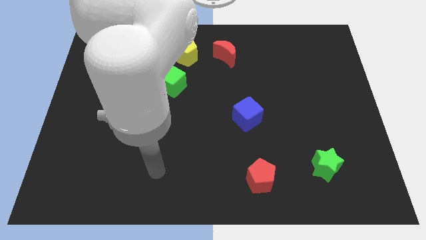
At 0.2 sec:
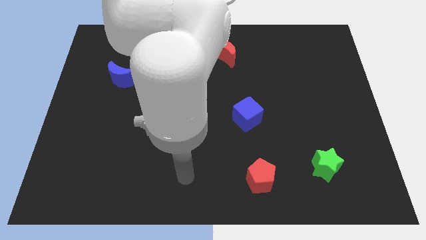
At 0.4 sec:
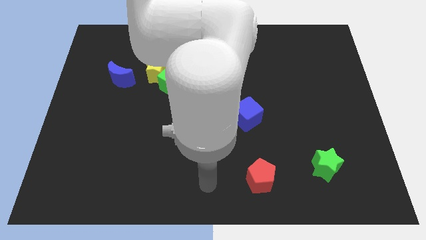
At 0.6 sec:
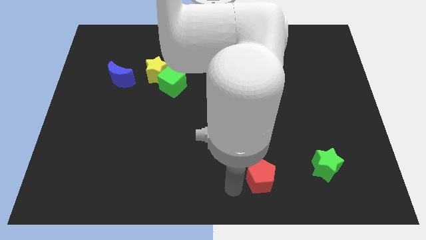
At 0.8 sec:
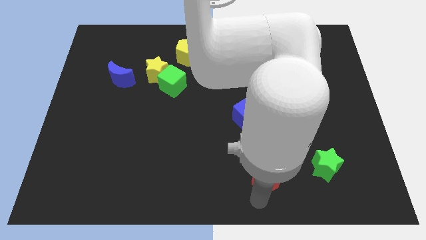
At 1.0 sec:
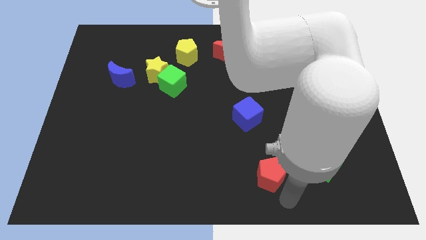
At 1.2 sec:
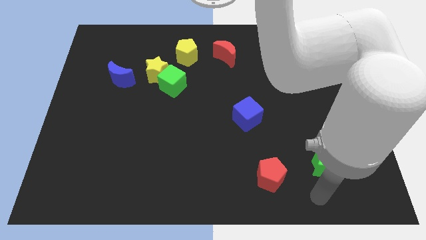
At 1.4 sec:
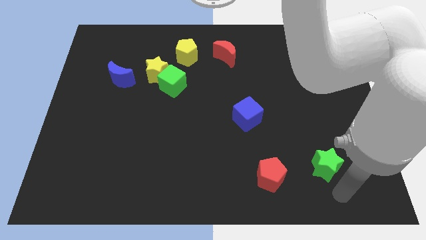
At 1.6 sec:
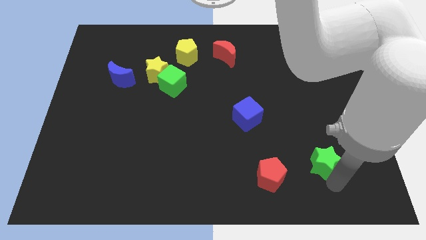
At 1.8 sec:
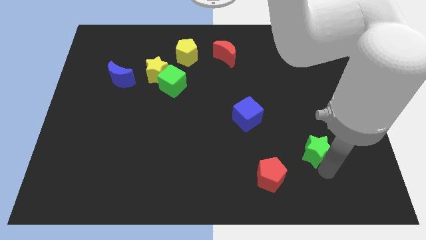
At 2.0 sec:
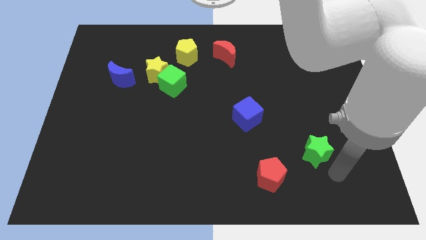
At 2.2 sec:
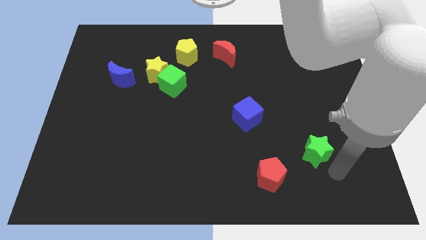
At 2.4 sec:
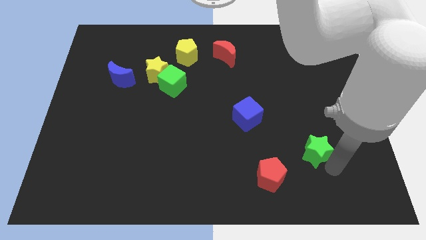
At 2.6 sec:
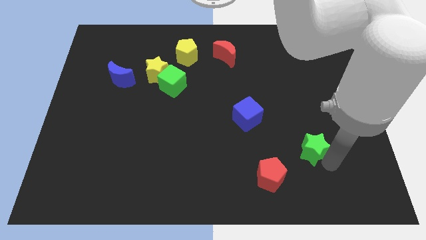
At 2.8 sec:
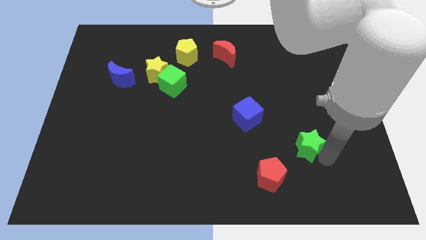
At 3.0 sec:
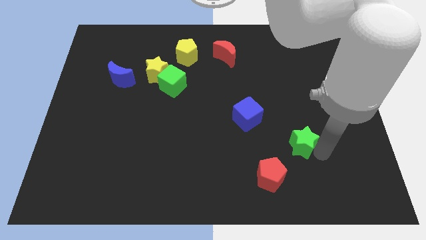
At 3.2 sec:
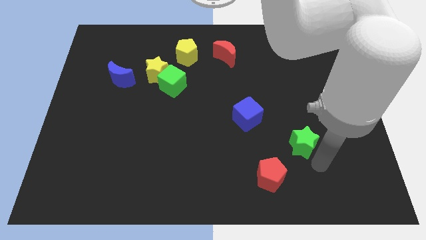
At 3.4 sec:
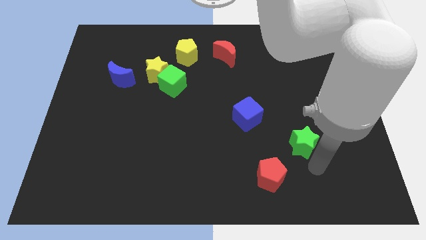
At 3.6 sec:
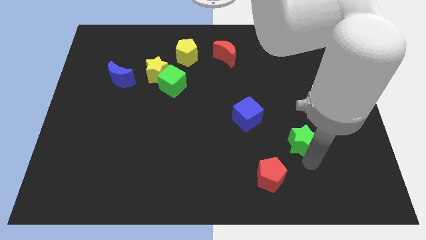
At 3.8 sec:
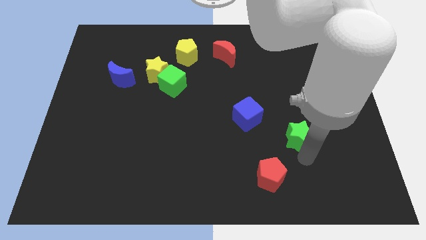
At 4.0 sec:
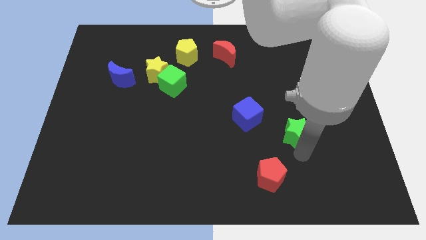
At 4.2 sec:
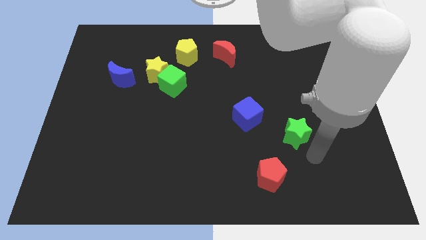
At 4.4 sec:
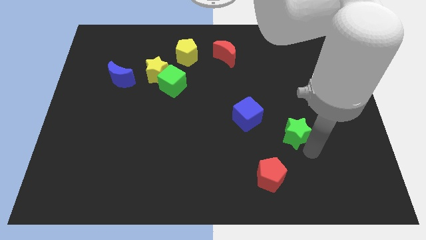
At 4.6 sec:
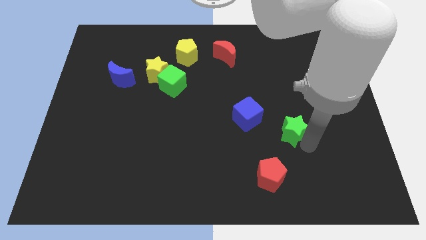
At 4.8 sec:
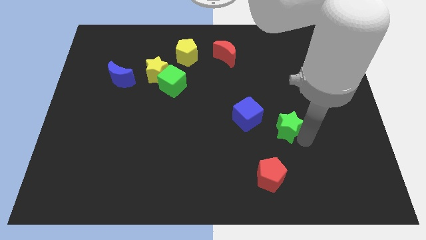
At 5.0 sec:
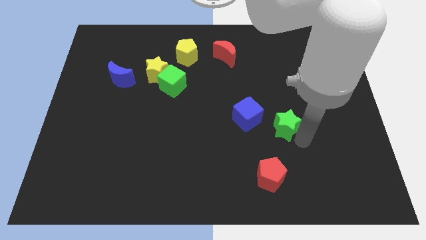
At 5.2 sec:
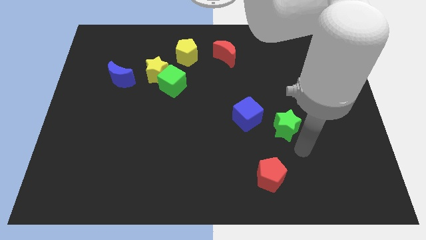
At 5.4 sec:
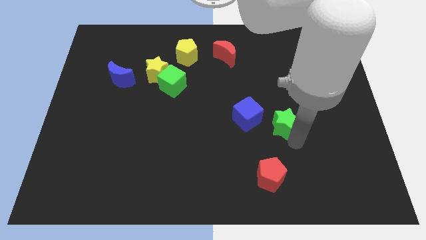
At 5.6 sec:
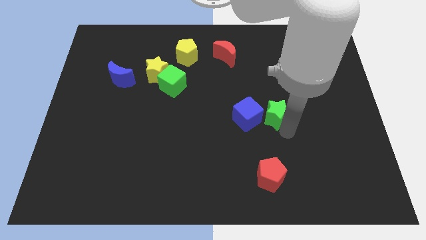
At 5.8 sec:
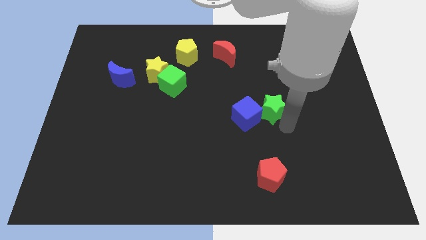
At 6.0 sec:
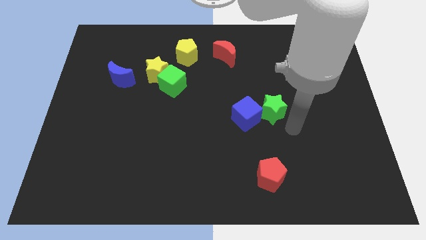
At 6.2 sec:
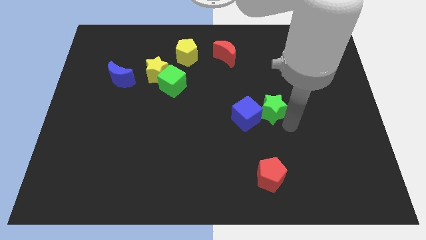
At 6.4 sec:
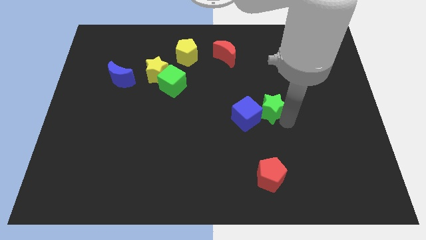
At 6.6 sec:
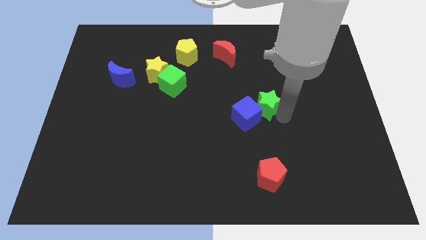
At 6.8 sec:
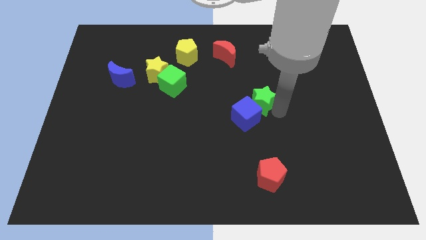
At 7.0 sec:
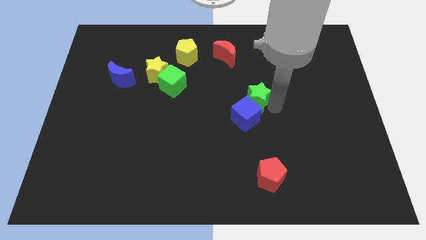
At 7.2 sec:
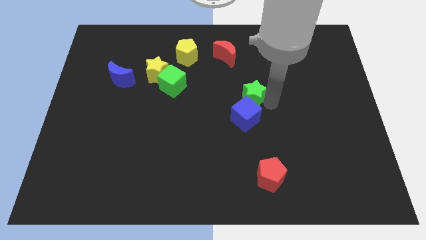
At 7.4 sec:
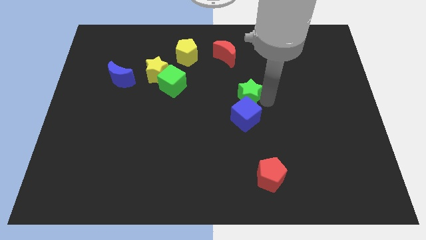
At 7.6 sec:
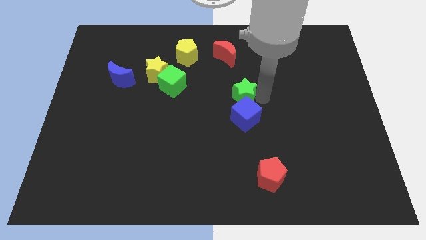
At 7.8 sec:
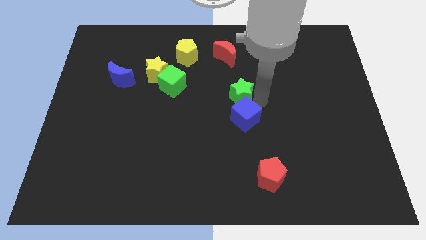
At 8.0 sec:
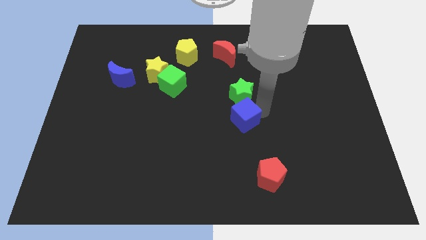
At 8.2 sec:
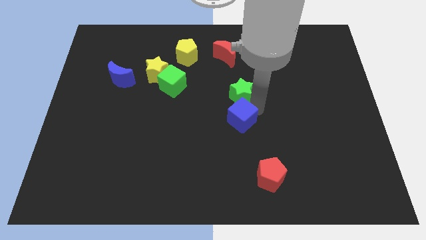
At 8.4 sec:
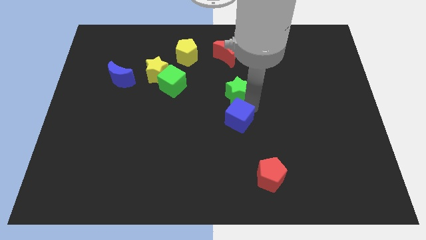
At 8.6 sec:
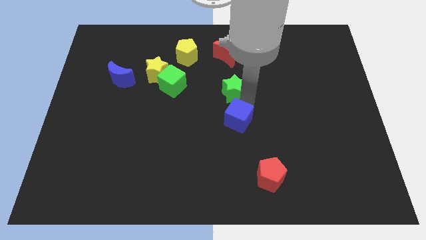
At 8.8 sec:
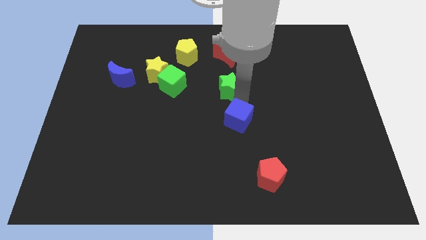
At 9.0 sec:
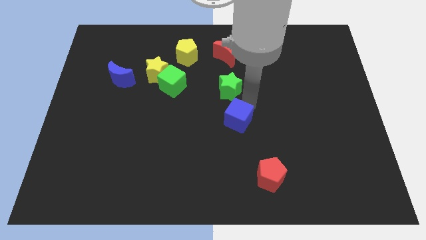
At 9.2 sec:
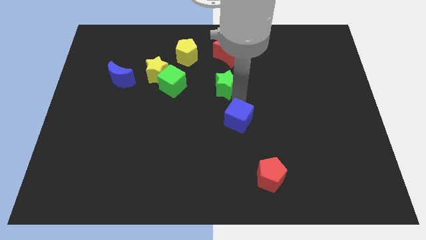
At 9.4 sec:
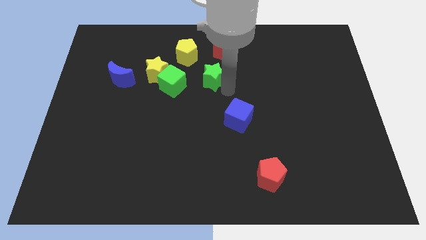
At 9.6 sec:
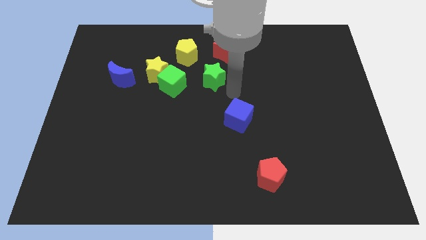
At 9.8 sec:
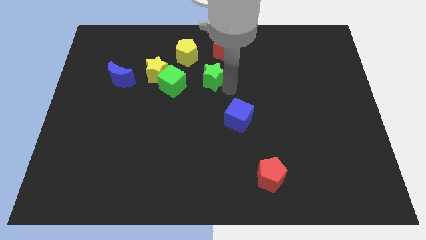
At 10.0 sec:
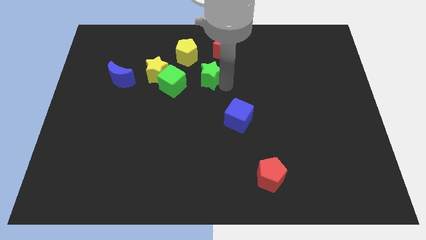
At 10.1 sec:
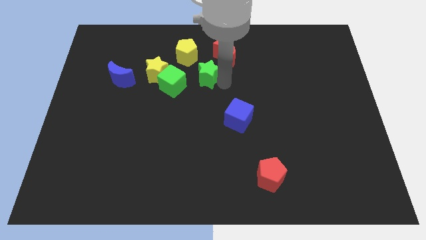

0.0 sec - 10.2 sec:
slide the green star diagonally up and to the right of the green cube

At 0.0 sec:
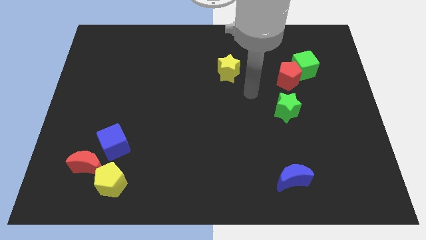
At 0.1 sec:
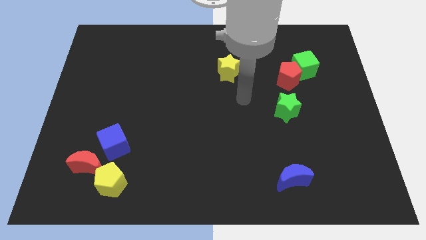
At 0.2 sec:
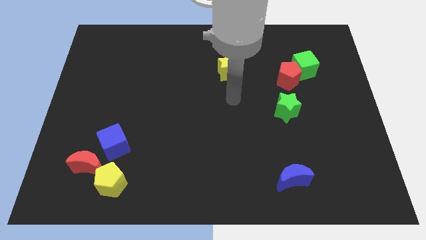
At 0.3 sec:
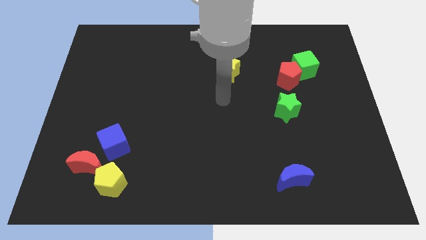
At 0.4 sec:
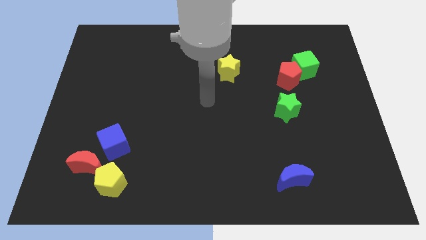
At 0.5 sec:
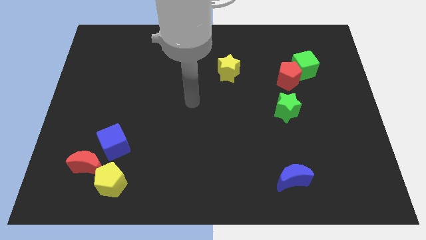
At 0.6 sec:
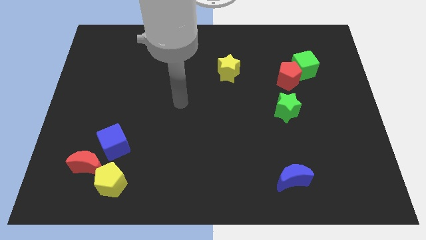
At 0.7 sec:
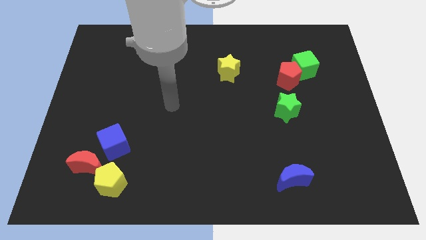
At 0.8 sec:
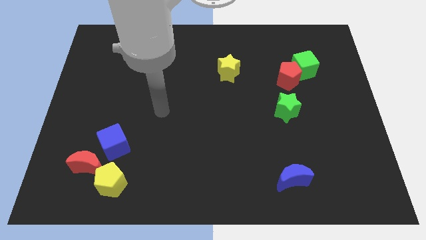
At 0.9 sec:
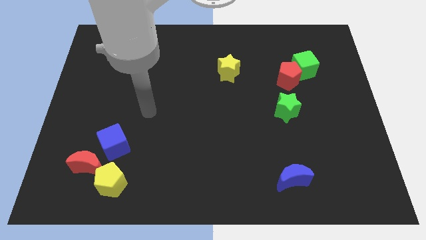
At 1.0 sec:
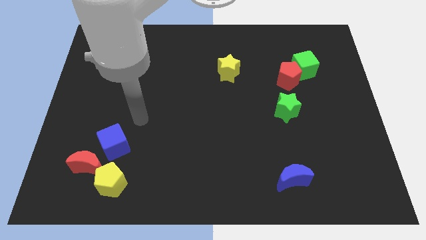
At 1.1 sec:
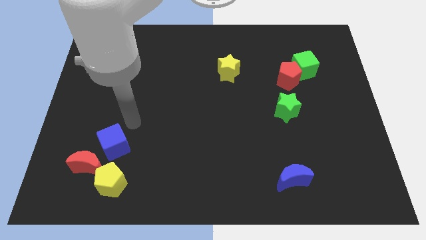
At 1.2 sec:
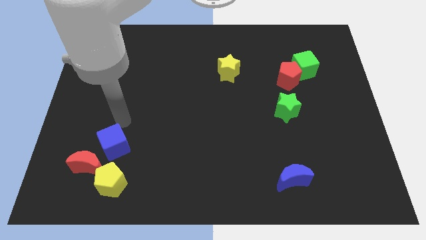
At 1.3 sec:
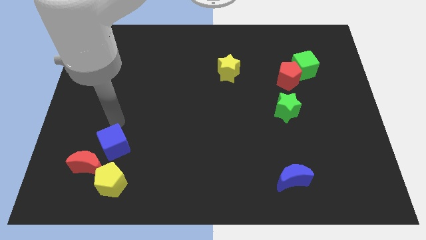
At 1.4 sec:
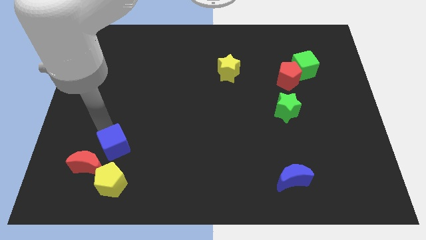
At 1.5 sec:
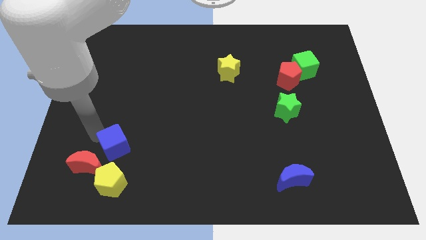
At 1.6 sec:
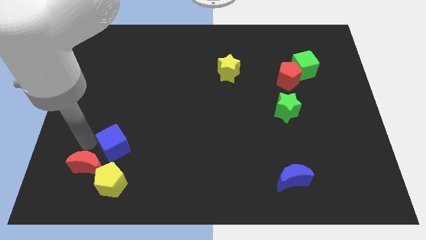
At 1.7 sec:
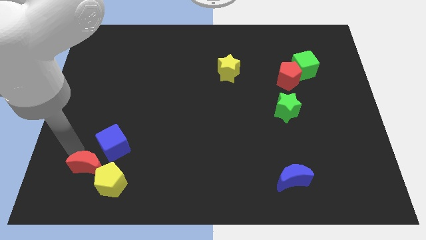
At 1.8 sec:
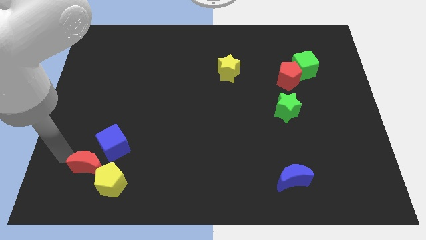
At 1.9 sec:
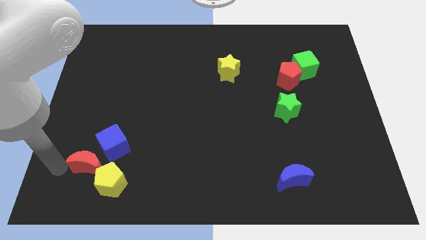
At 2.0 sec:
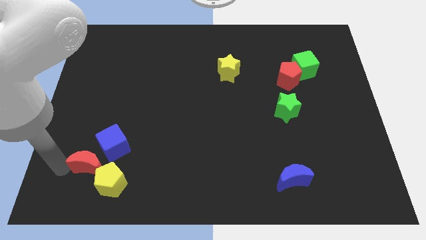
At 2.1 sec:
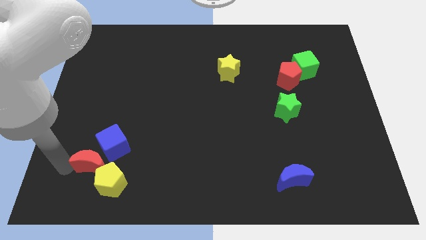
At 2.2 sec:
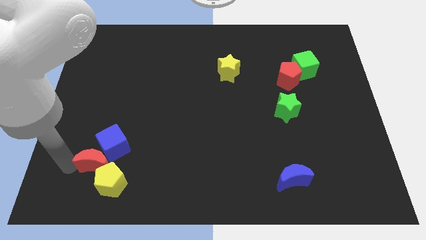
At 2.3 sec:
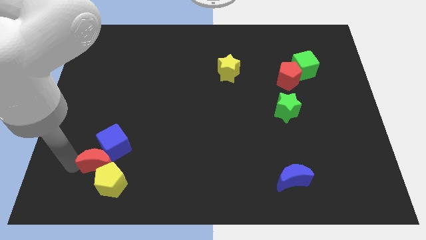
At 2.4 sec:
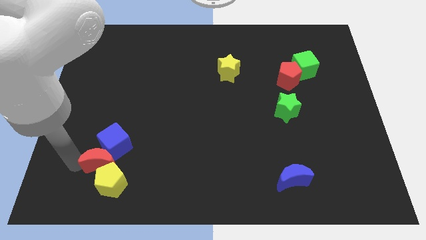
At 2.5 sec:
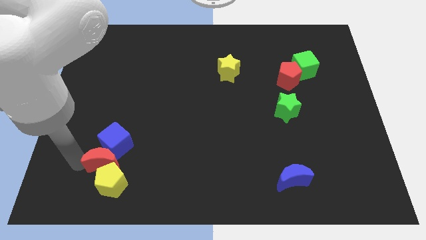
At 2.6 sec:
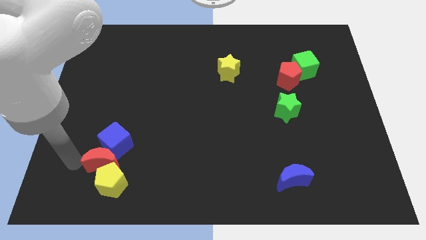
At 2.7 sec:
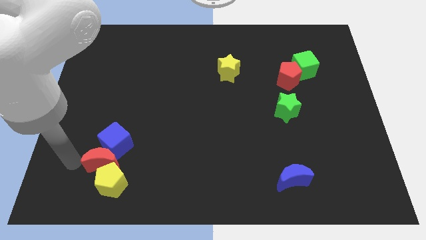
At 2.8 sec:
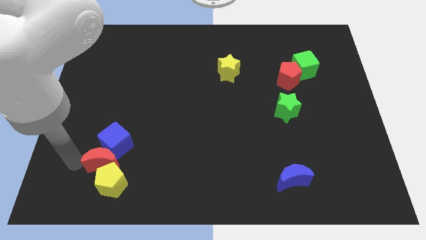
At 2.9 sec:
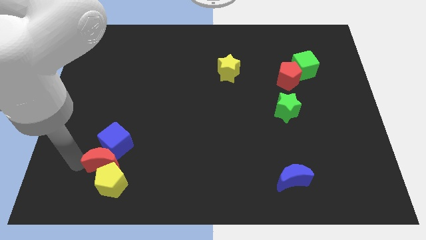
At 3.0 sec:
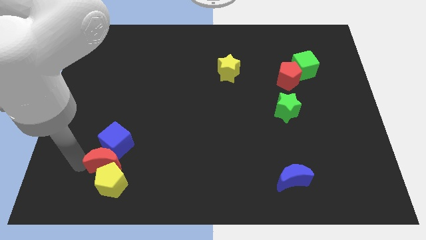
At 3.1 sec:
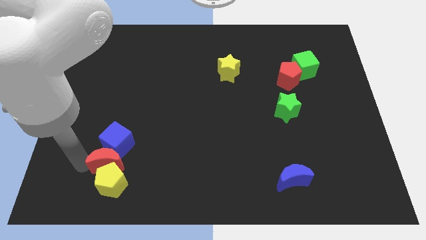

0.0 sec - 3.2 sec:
push the red moon to the top right side of the yellow pentagon
